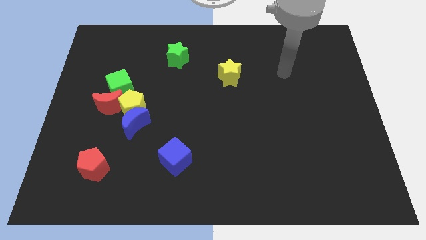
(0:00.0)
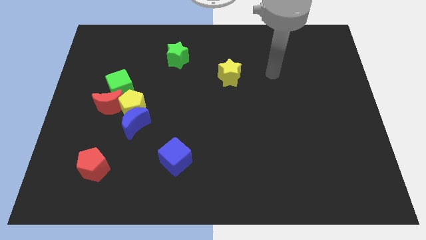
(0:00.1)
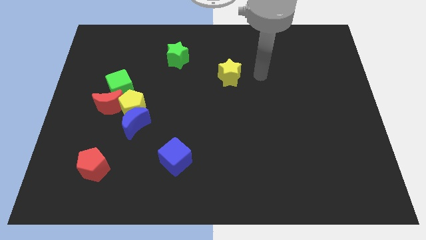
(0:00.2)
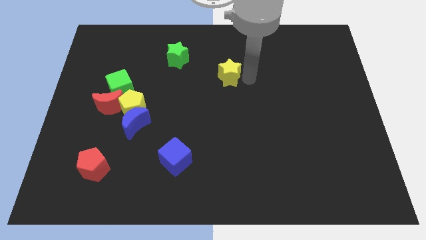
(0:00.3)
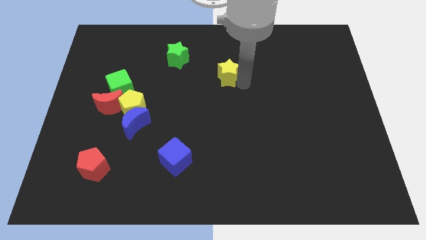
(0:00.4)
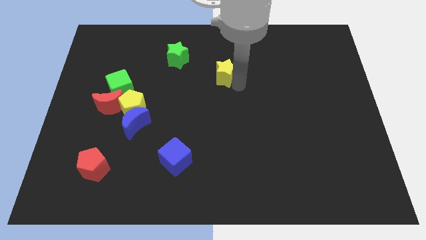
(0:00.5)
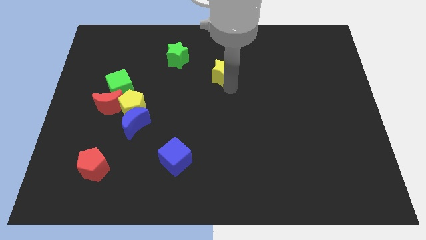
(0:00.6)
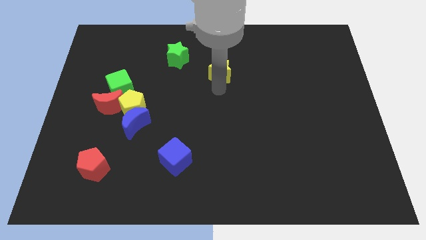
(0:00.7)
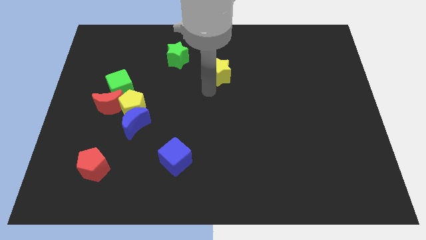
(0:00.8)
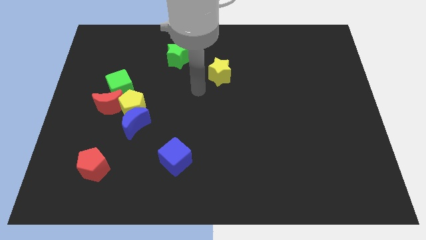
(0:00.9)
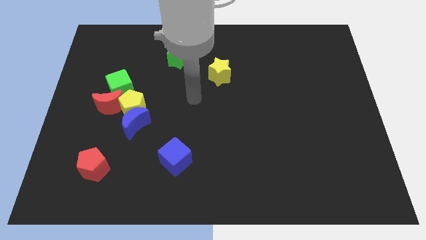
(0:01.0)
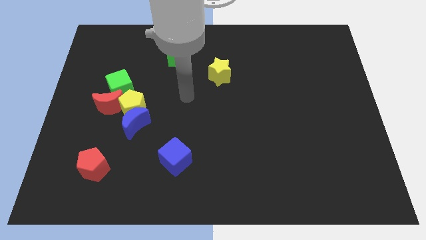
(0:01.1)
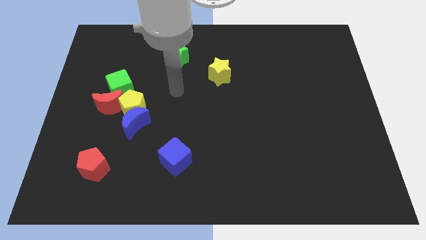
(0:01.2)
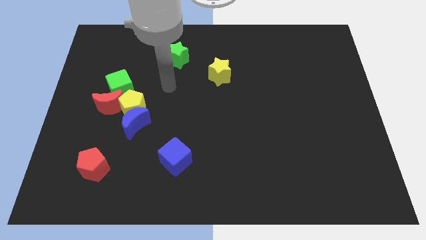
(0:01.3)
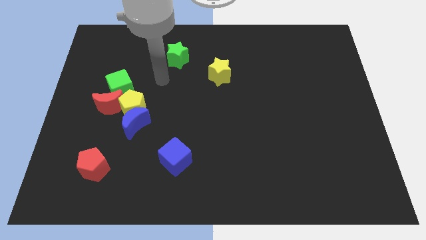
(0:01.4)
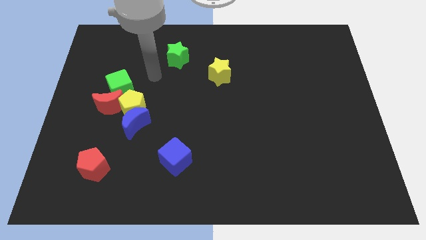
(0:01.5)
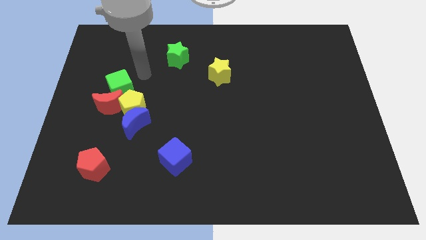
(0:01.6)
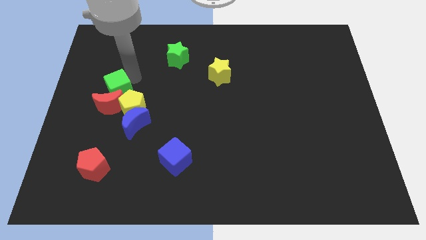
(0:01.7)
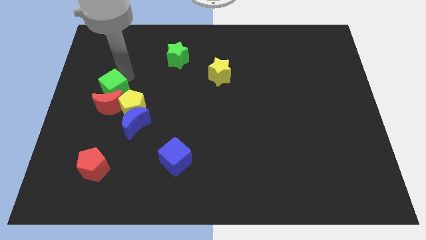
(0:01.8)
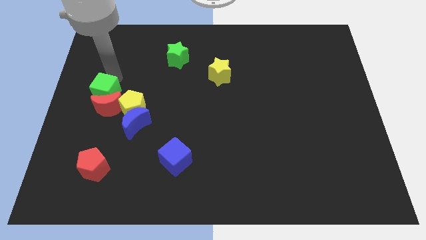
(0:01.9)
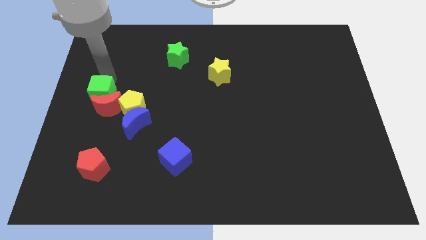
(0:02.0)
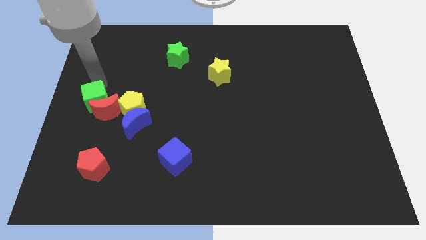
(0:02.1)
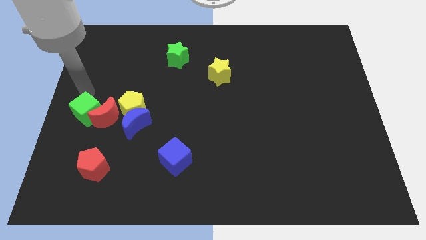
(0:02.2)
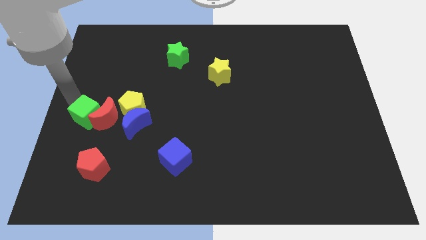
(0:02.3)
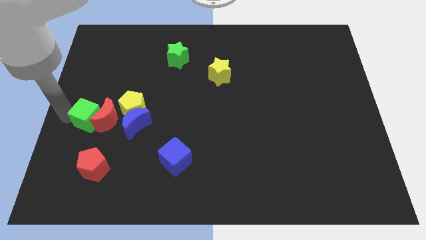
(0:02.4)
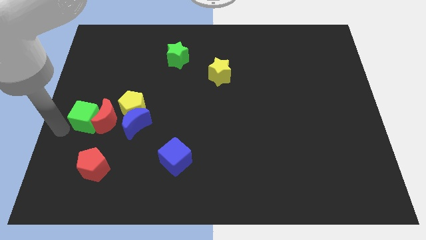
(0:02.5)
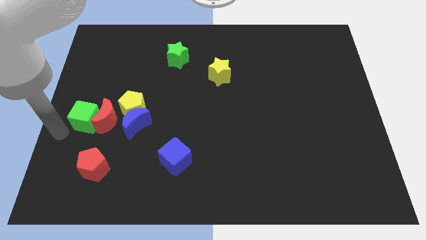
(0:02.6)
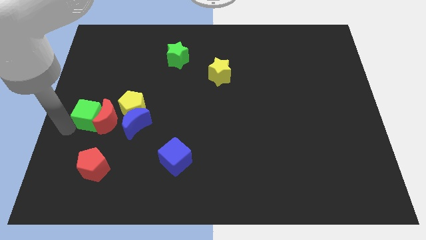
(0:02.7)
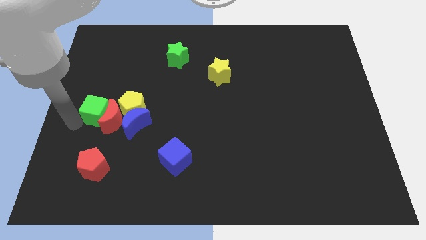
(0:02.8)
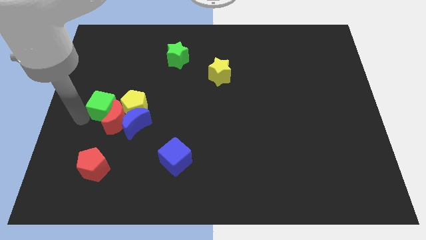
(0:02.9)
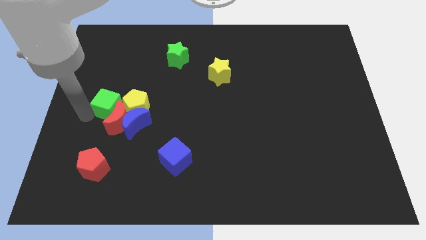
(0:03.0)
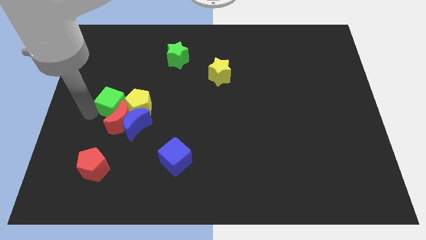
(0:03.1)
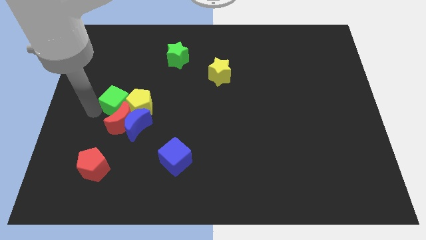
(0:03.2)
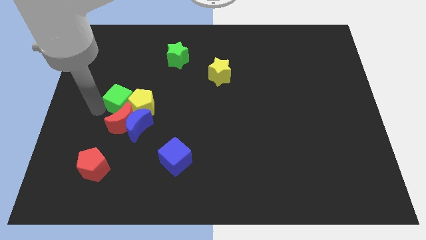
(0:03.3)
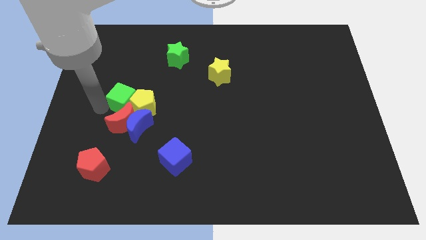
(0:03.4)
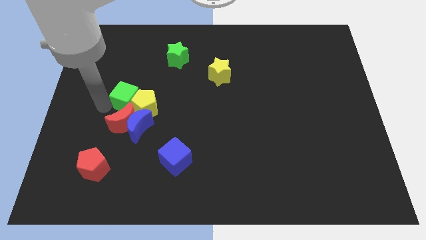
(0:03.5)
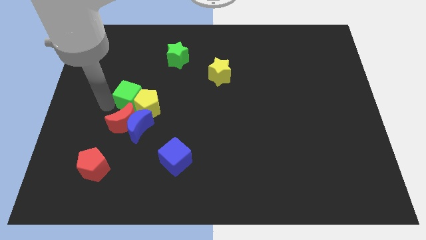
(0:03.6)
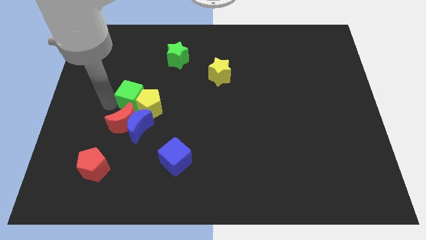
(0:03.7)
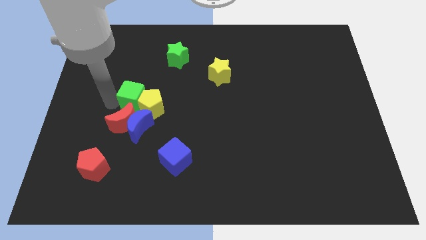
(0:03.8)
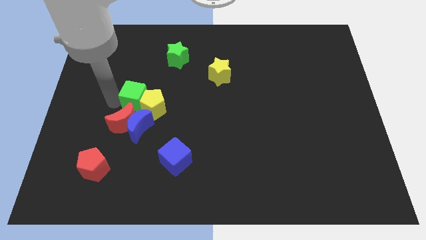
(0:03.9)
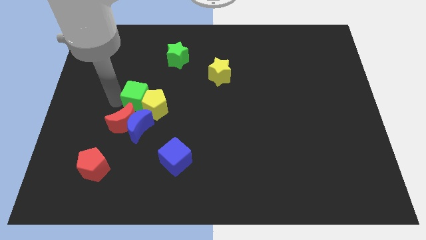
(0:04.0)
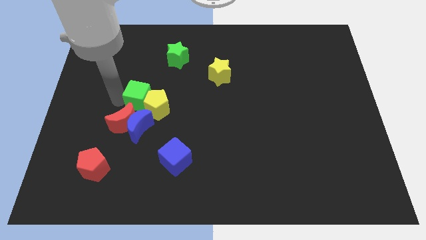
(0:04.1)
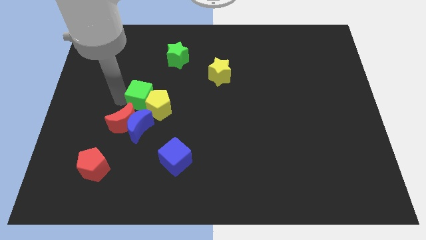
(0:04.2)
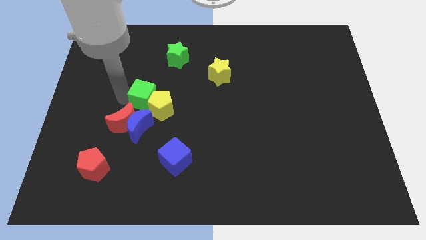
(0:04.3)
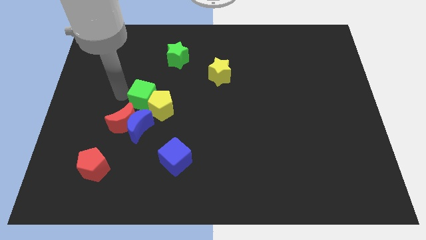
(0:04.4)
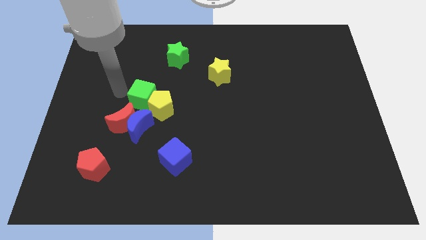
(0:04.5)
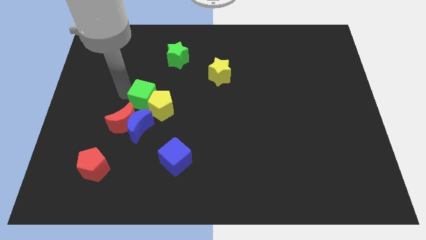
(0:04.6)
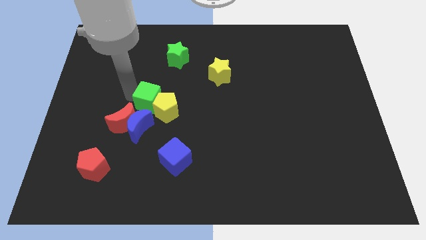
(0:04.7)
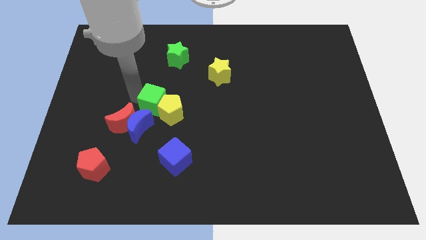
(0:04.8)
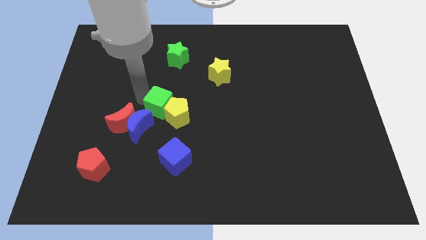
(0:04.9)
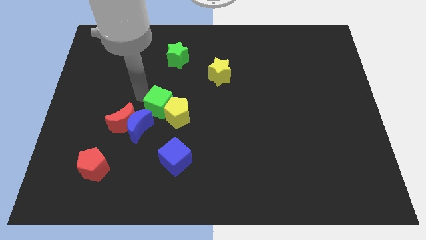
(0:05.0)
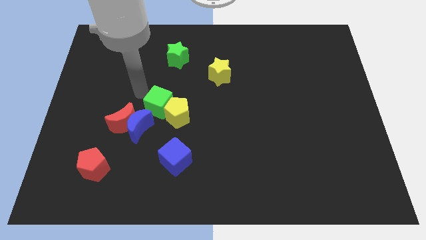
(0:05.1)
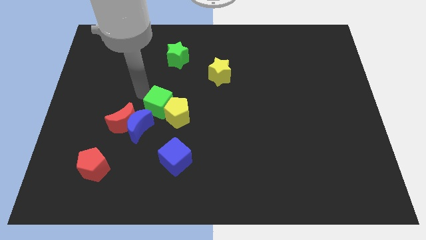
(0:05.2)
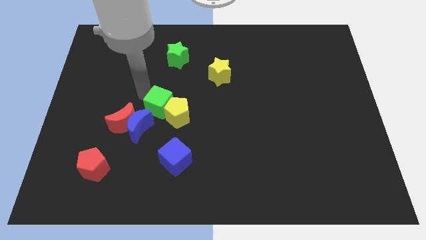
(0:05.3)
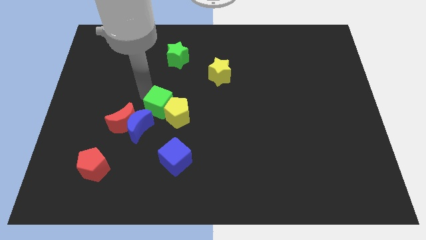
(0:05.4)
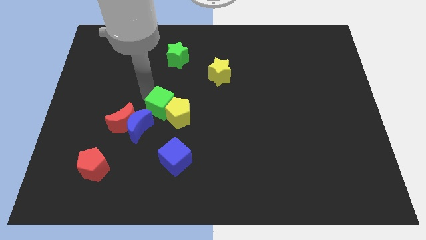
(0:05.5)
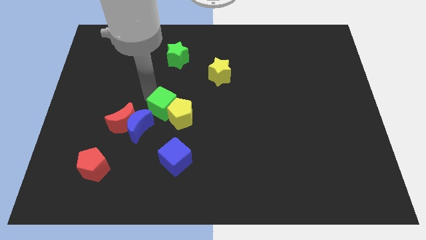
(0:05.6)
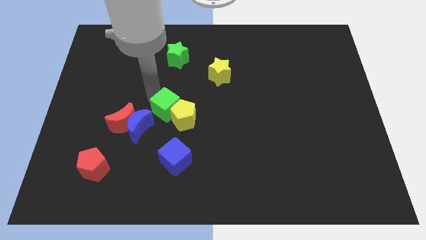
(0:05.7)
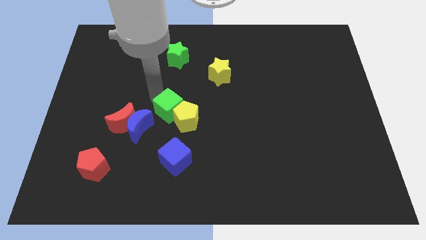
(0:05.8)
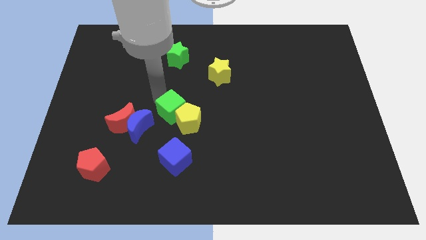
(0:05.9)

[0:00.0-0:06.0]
slide the green cube just right of the blue moon

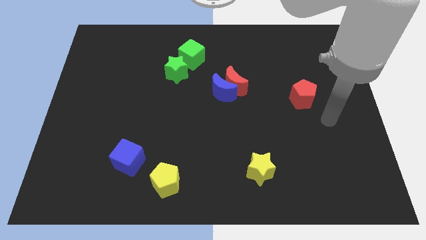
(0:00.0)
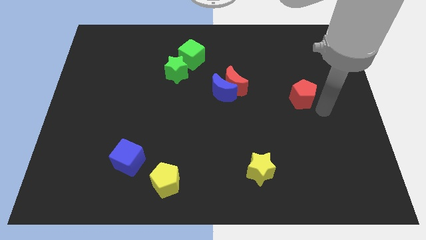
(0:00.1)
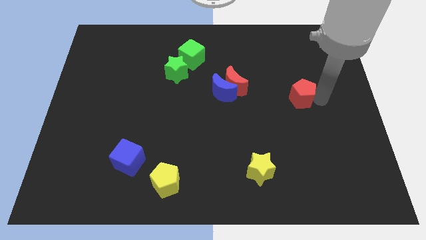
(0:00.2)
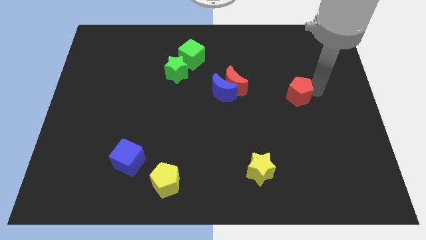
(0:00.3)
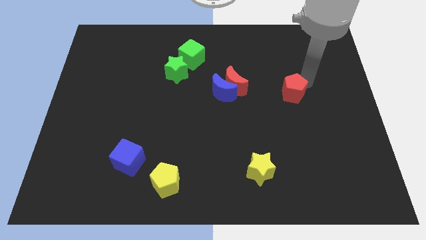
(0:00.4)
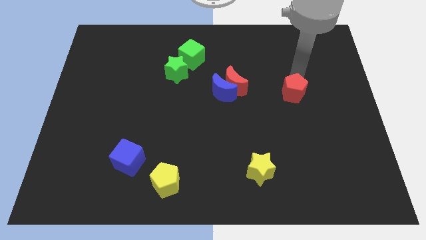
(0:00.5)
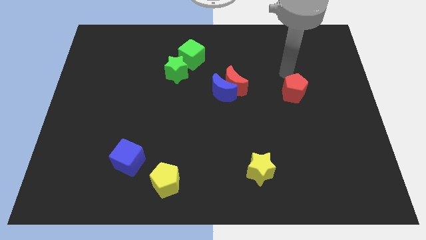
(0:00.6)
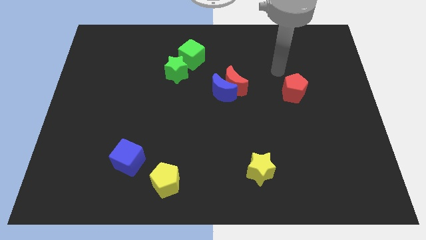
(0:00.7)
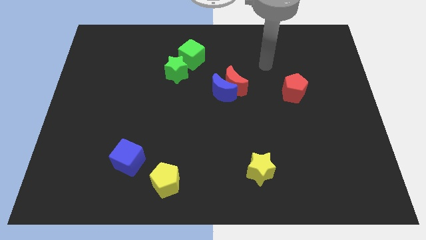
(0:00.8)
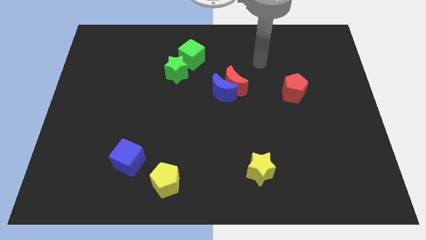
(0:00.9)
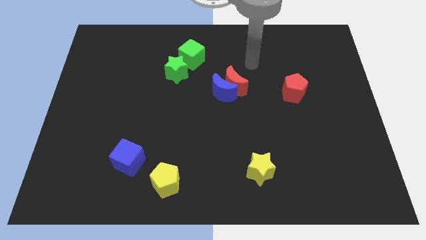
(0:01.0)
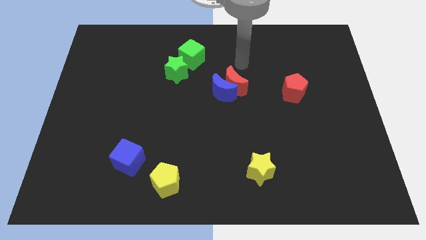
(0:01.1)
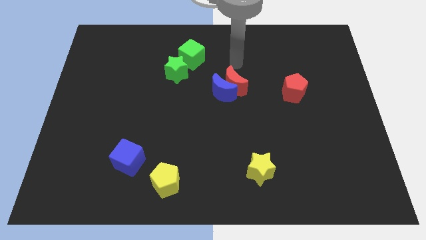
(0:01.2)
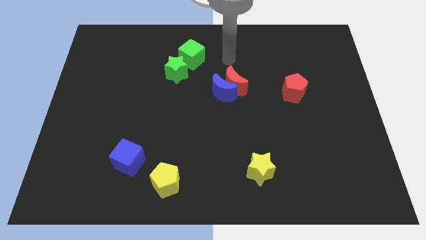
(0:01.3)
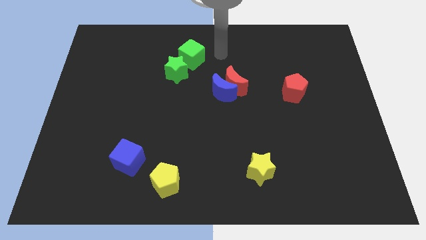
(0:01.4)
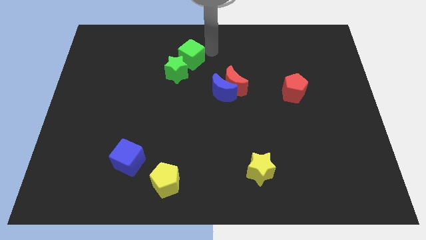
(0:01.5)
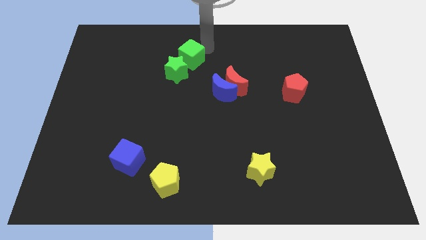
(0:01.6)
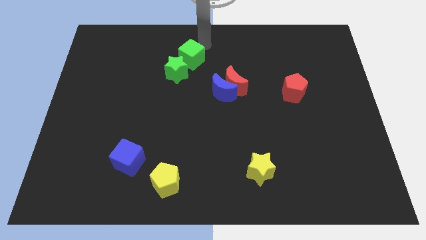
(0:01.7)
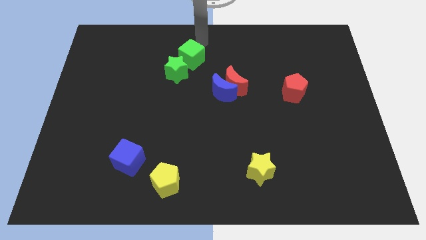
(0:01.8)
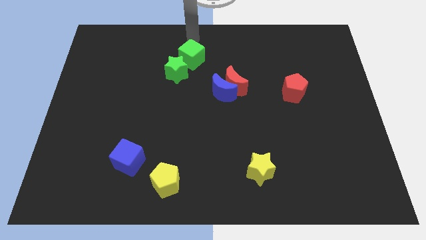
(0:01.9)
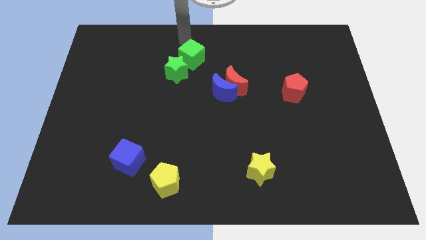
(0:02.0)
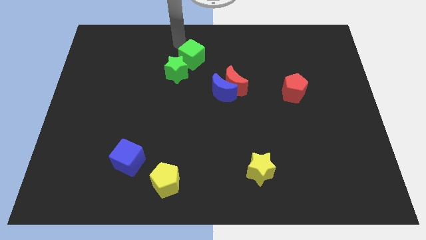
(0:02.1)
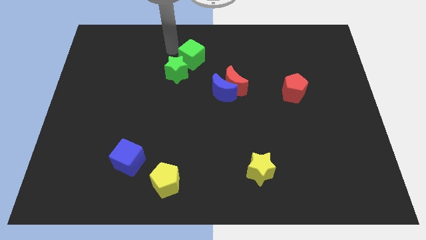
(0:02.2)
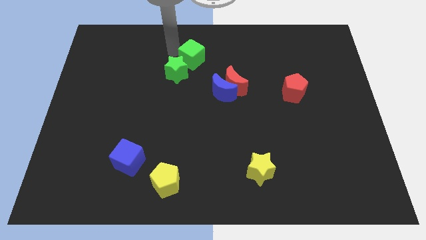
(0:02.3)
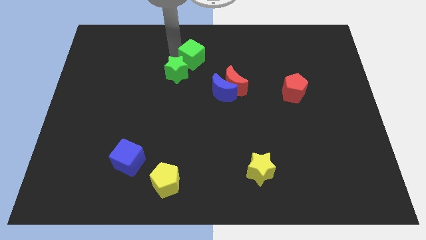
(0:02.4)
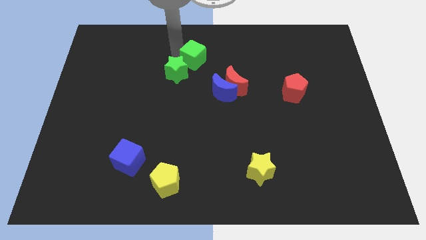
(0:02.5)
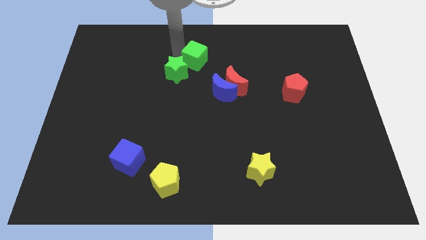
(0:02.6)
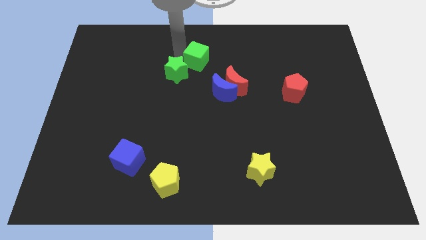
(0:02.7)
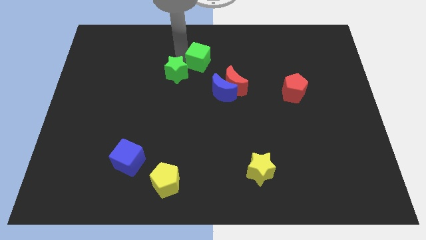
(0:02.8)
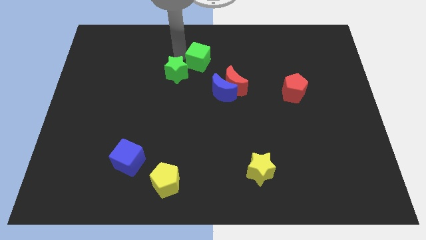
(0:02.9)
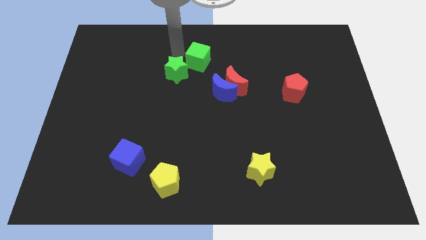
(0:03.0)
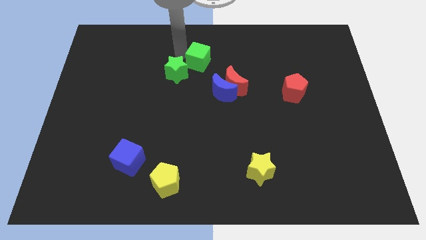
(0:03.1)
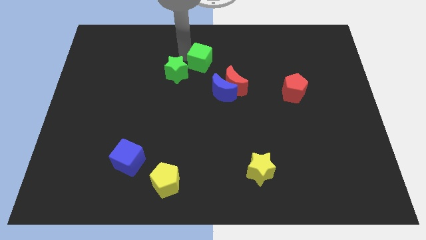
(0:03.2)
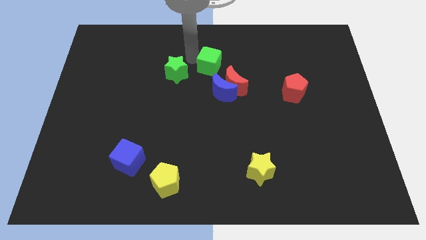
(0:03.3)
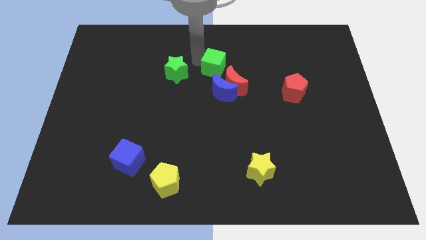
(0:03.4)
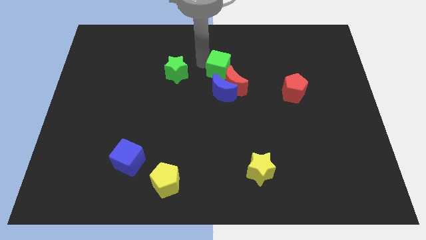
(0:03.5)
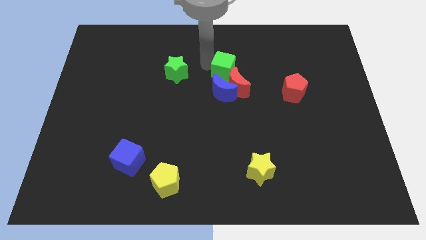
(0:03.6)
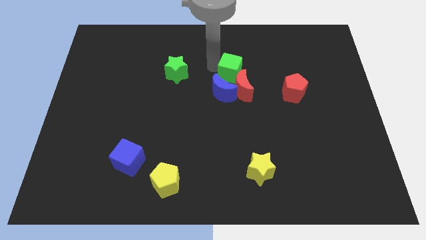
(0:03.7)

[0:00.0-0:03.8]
move the green cube to the top right of the blue moon
